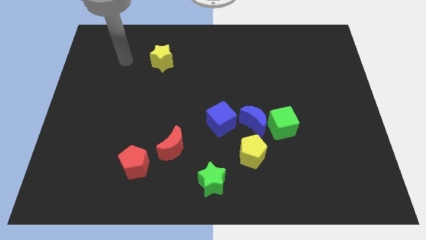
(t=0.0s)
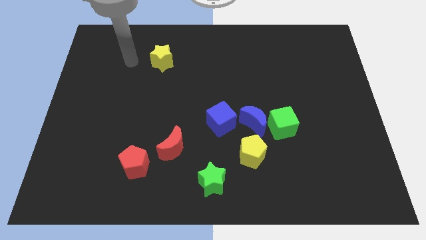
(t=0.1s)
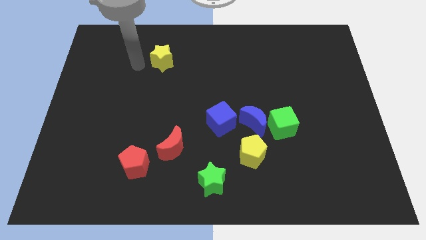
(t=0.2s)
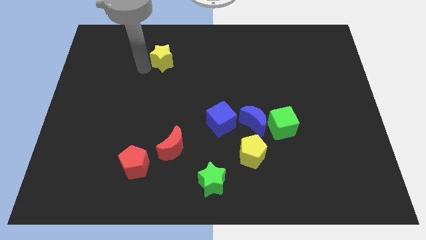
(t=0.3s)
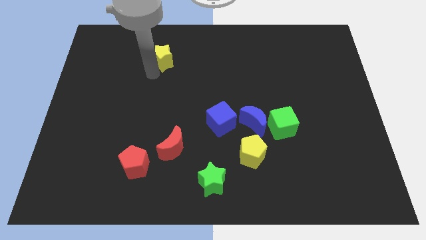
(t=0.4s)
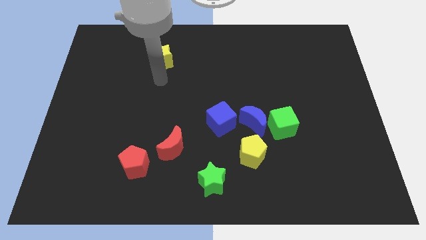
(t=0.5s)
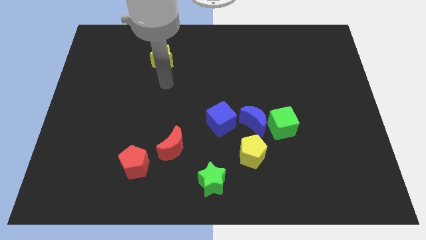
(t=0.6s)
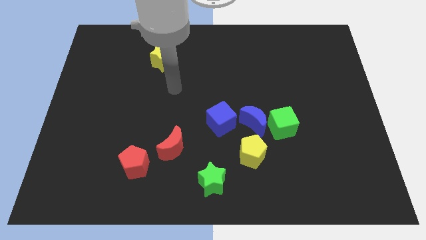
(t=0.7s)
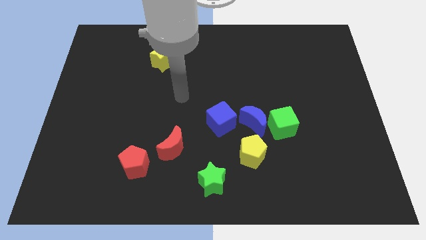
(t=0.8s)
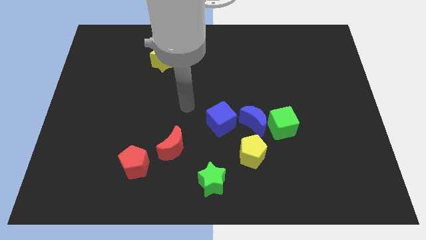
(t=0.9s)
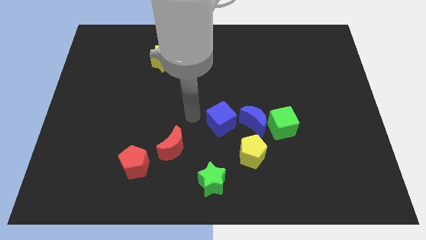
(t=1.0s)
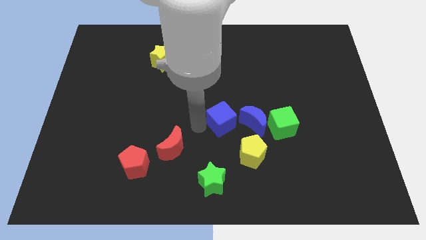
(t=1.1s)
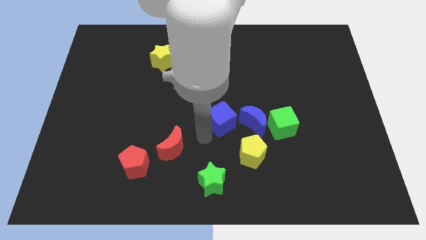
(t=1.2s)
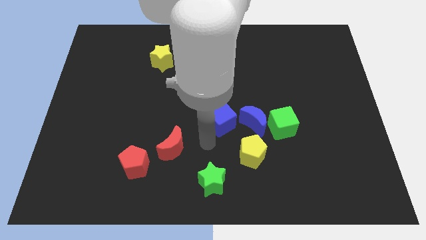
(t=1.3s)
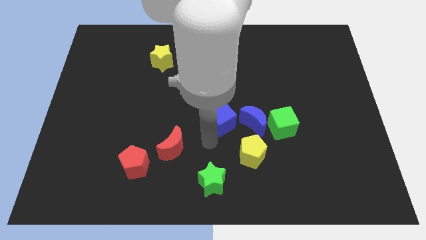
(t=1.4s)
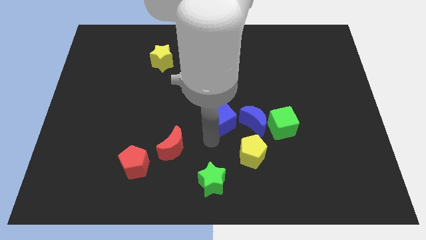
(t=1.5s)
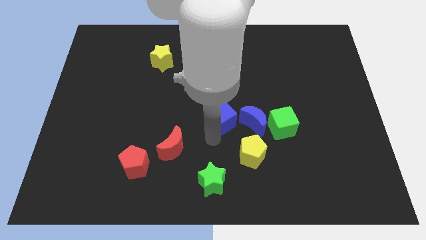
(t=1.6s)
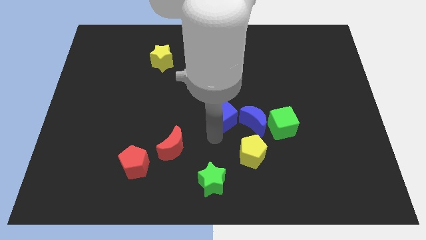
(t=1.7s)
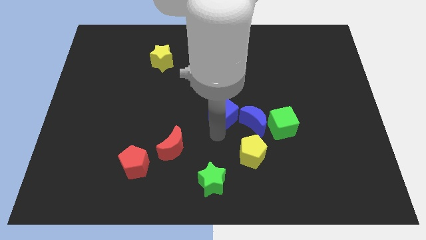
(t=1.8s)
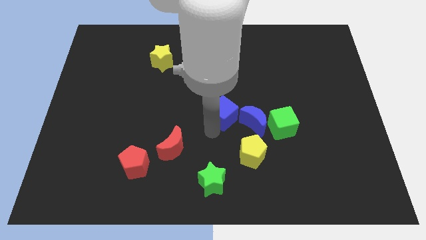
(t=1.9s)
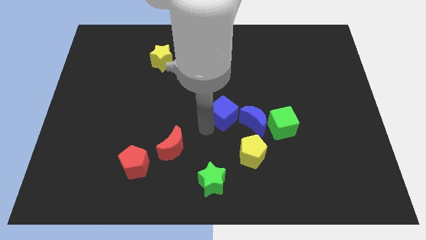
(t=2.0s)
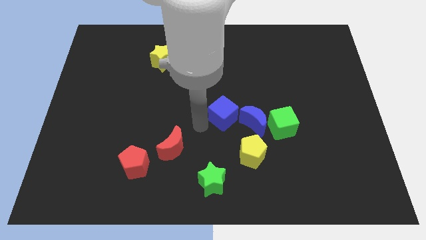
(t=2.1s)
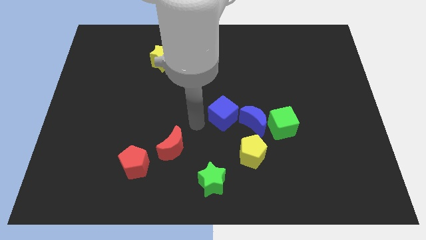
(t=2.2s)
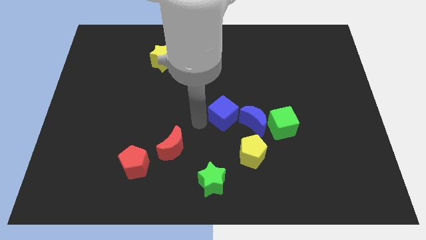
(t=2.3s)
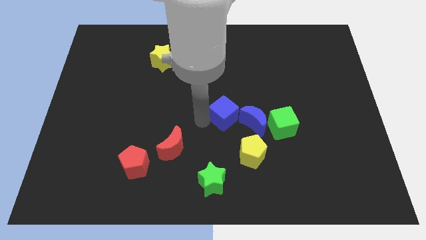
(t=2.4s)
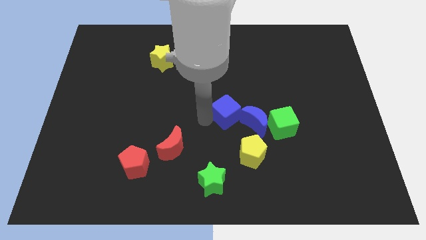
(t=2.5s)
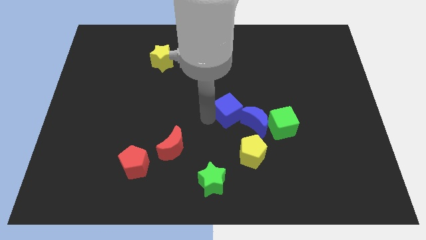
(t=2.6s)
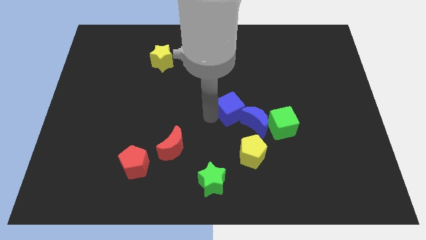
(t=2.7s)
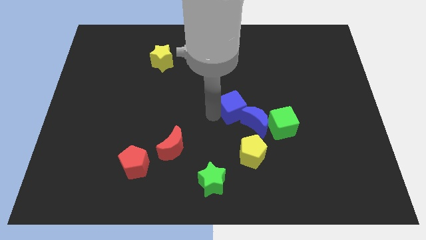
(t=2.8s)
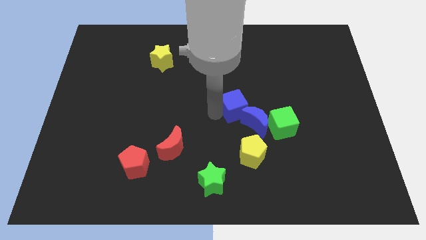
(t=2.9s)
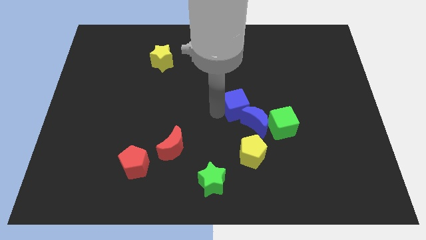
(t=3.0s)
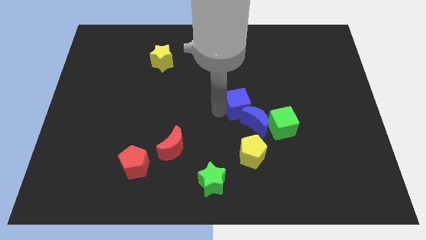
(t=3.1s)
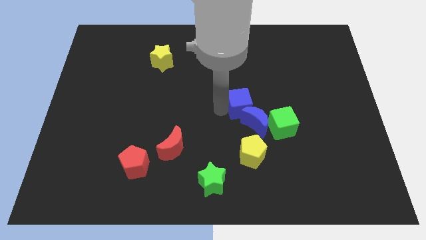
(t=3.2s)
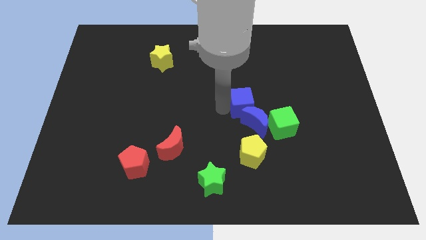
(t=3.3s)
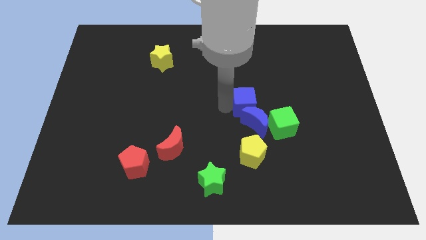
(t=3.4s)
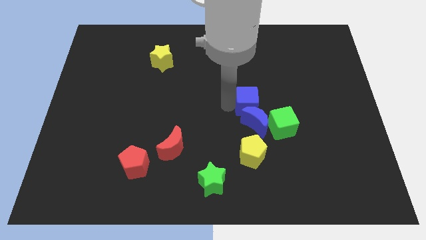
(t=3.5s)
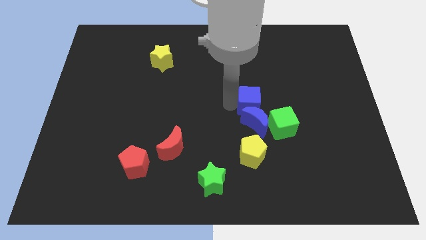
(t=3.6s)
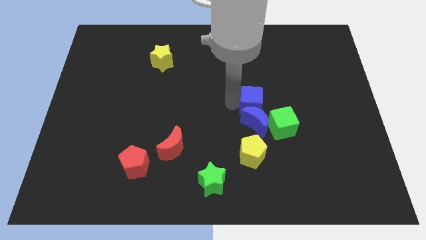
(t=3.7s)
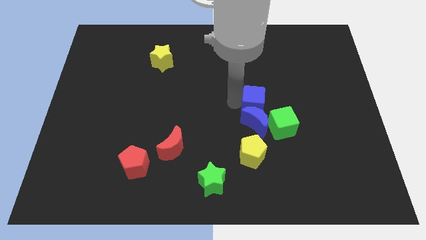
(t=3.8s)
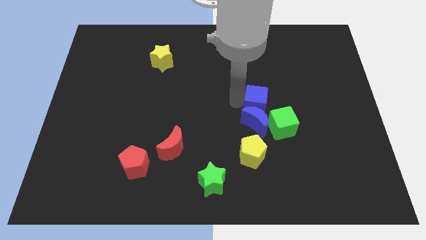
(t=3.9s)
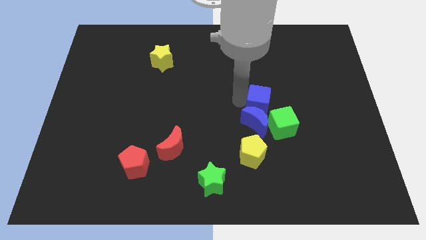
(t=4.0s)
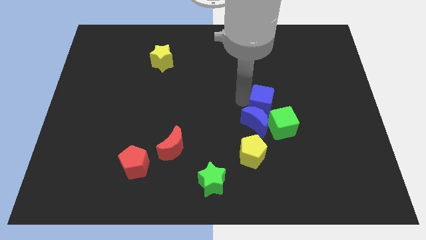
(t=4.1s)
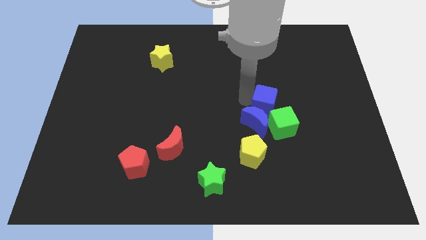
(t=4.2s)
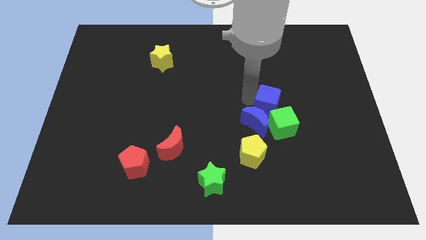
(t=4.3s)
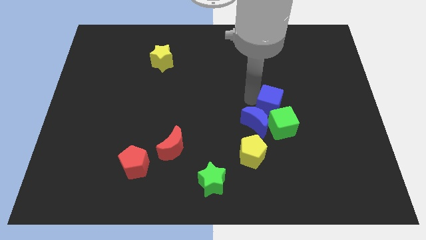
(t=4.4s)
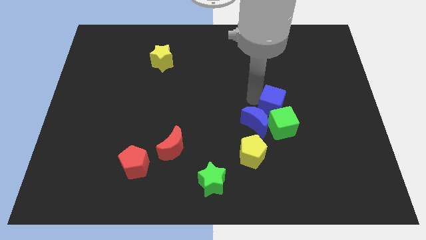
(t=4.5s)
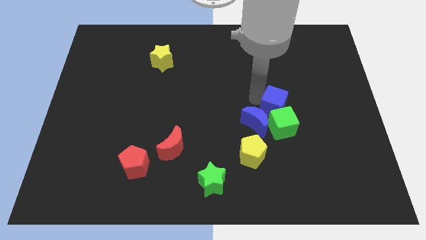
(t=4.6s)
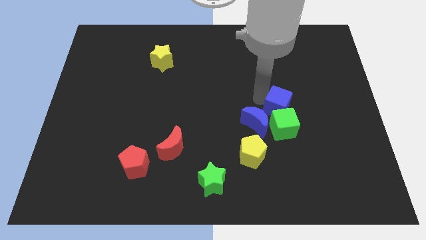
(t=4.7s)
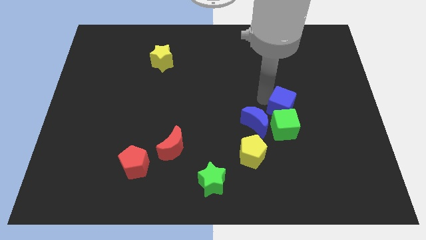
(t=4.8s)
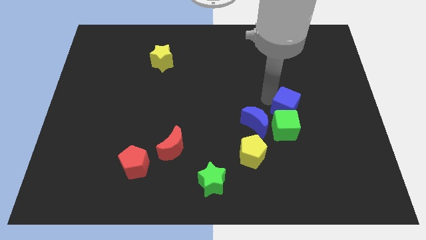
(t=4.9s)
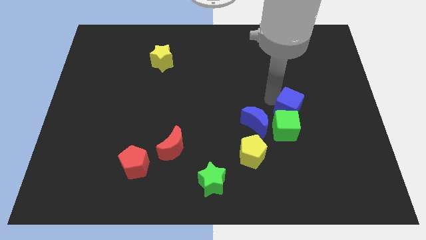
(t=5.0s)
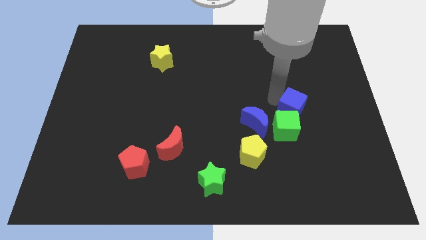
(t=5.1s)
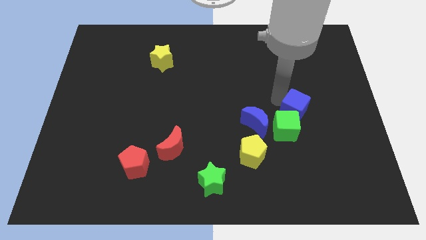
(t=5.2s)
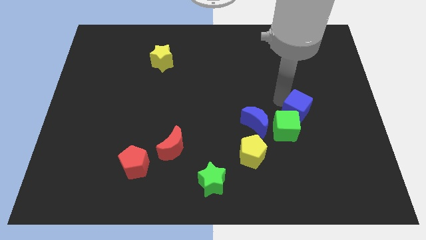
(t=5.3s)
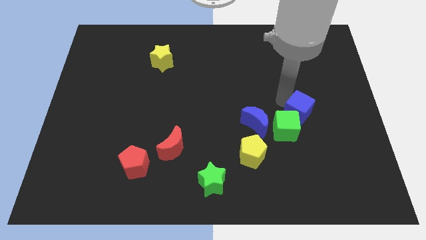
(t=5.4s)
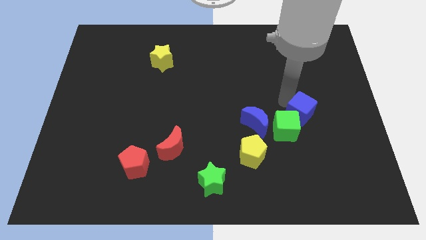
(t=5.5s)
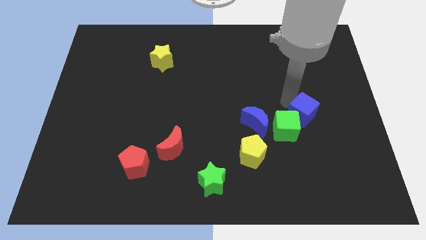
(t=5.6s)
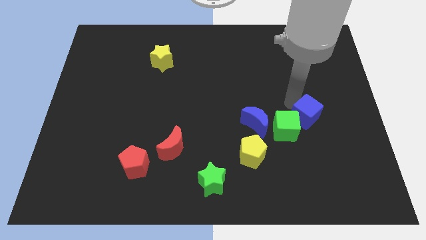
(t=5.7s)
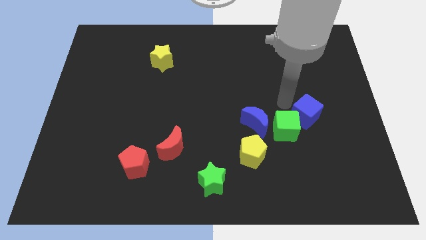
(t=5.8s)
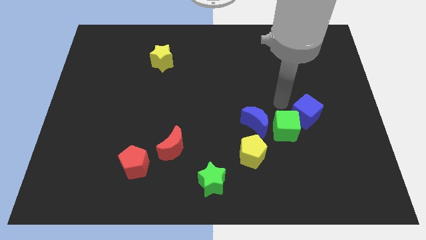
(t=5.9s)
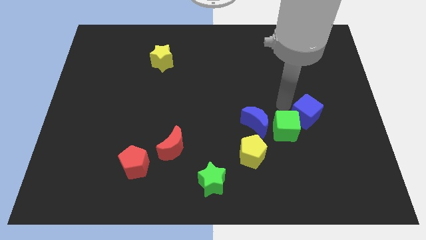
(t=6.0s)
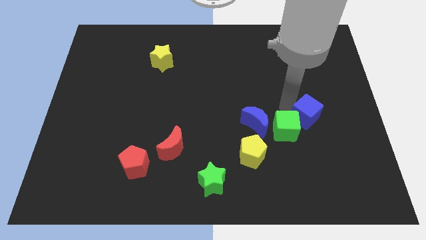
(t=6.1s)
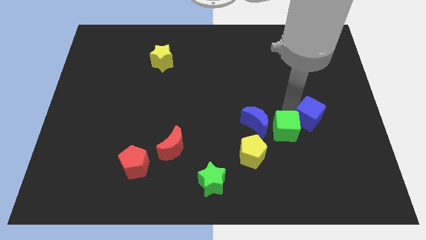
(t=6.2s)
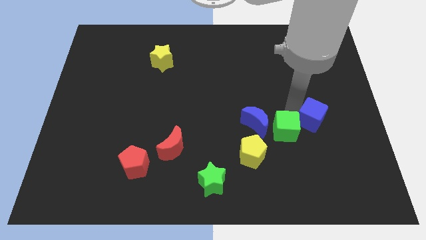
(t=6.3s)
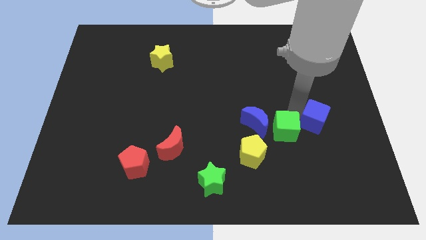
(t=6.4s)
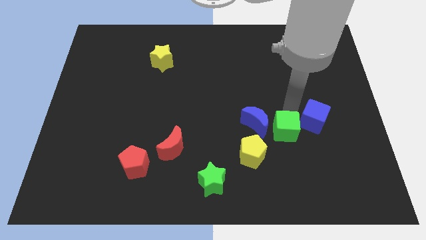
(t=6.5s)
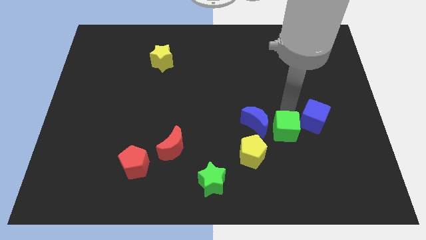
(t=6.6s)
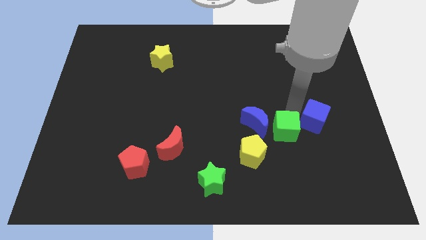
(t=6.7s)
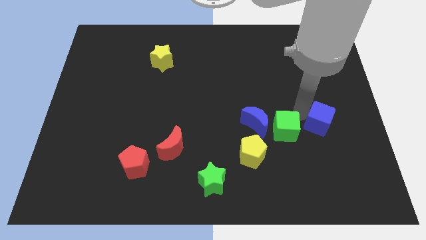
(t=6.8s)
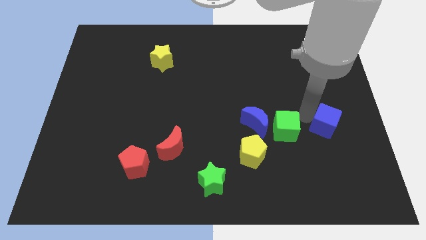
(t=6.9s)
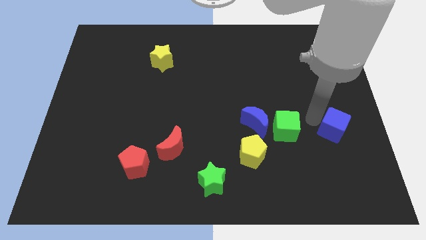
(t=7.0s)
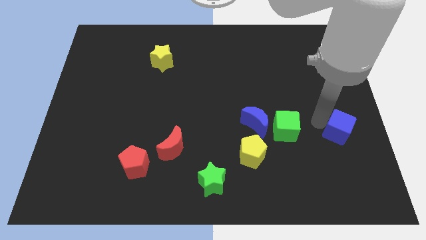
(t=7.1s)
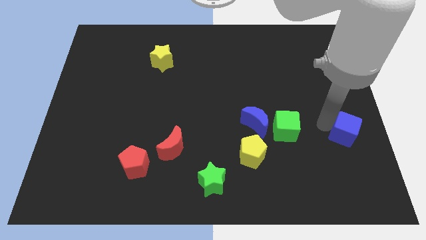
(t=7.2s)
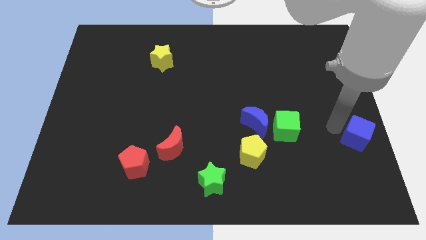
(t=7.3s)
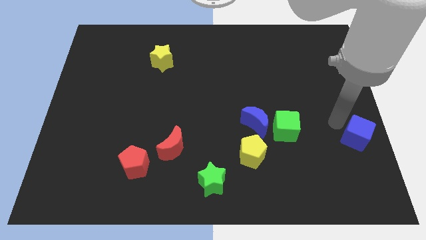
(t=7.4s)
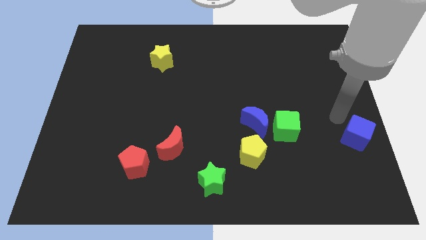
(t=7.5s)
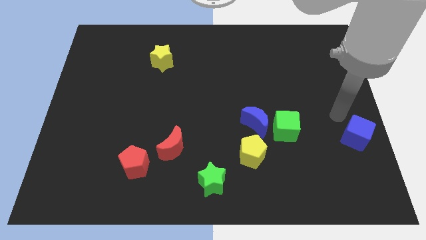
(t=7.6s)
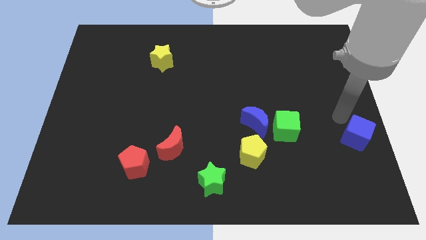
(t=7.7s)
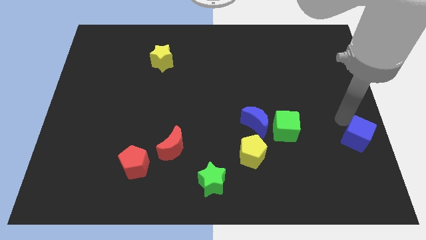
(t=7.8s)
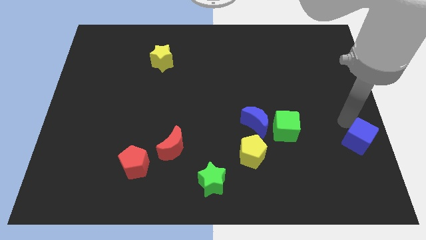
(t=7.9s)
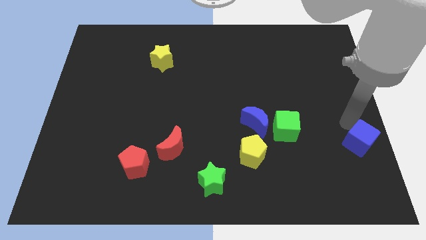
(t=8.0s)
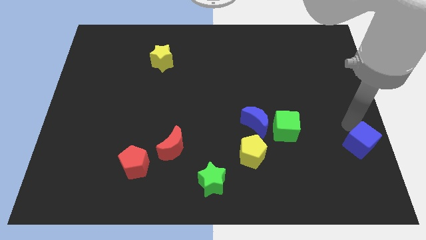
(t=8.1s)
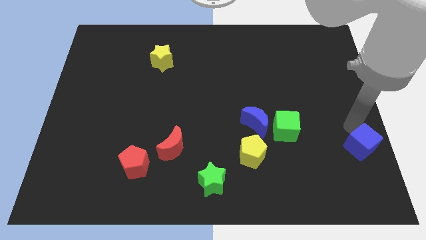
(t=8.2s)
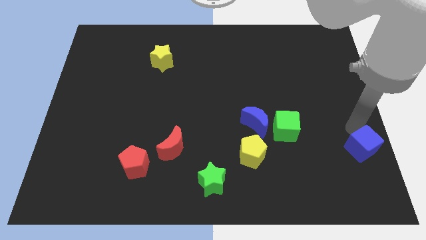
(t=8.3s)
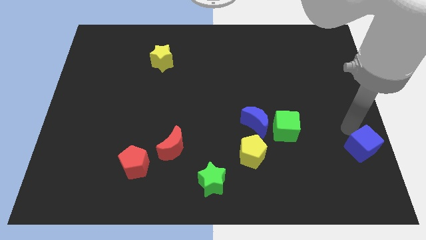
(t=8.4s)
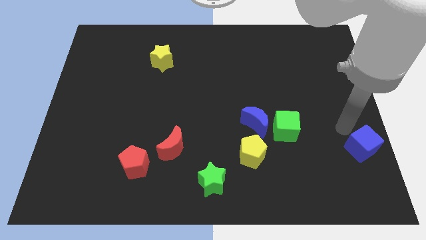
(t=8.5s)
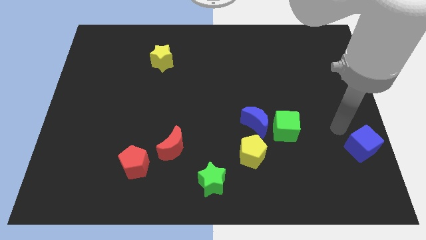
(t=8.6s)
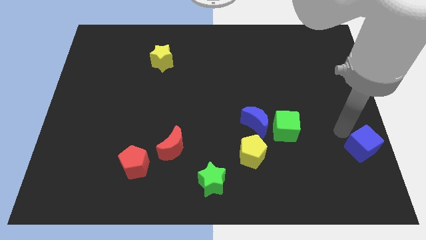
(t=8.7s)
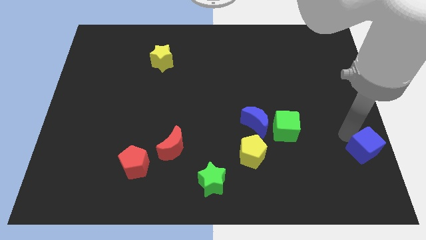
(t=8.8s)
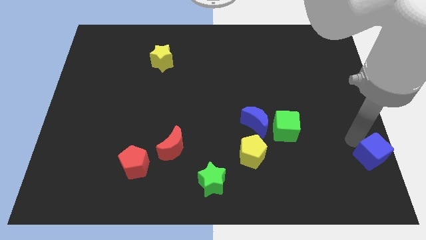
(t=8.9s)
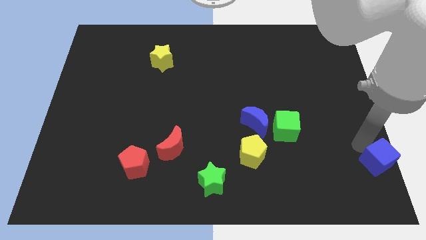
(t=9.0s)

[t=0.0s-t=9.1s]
push the blue cube to the bottom right of the board
